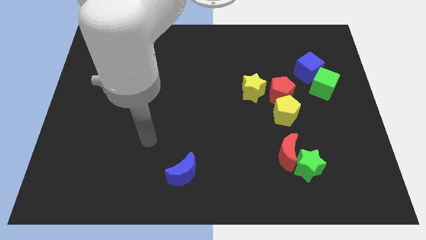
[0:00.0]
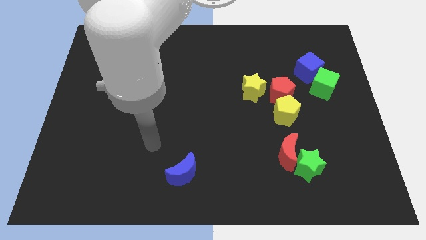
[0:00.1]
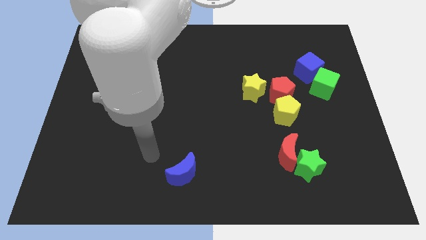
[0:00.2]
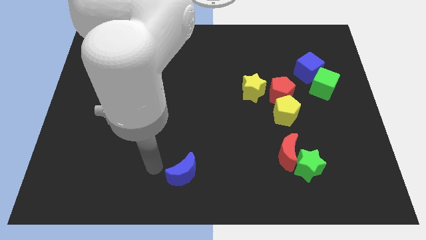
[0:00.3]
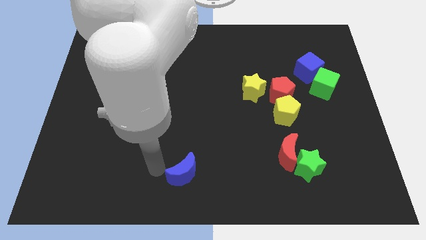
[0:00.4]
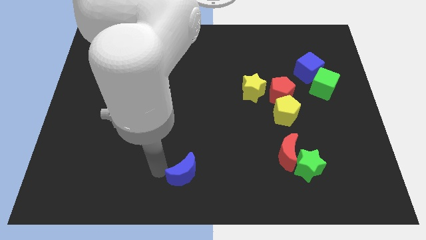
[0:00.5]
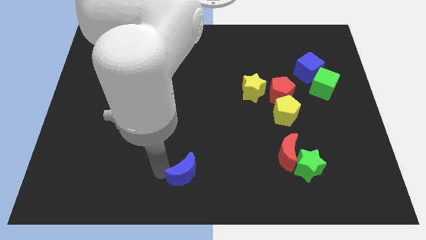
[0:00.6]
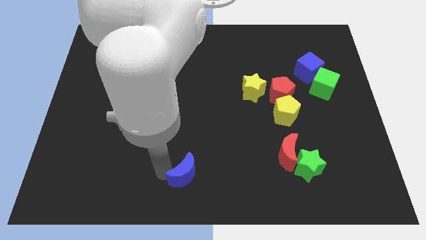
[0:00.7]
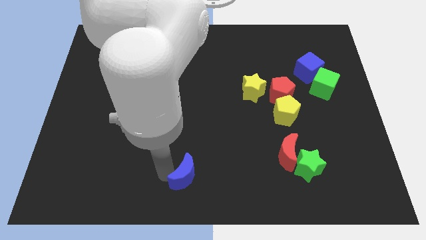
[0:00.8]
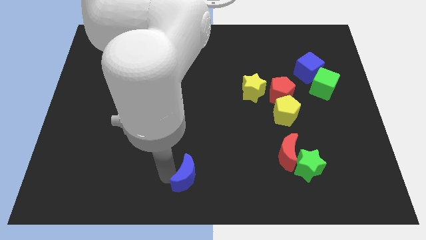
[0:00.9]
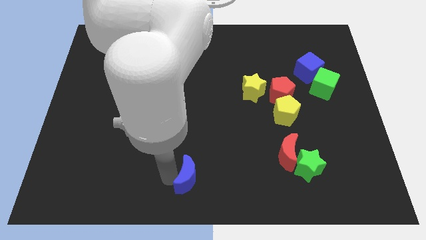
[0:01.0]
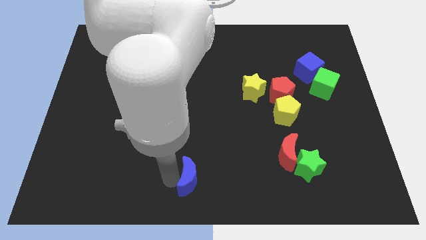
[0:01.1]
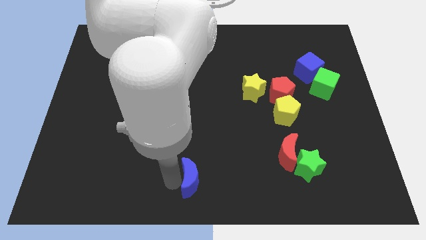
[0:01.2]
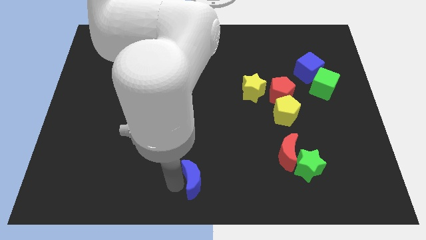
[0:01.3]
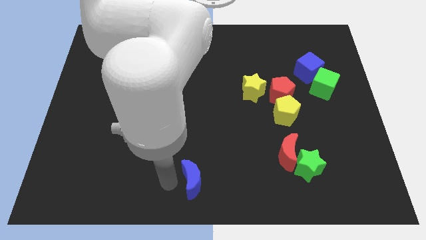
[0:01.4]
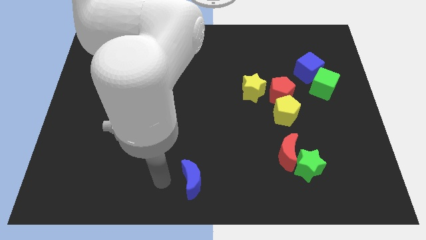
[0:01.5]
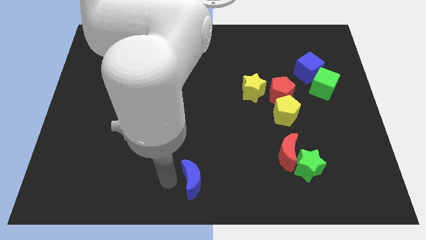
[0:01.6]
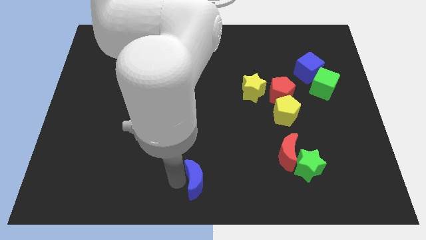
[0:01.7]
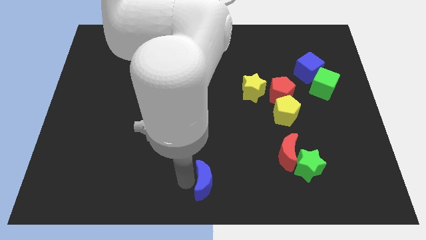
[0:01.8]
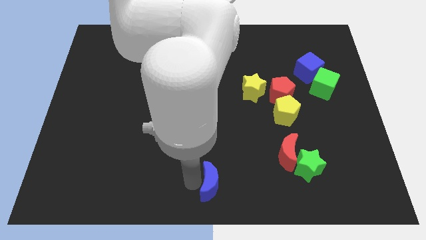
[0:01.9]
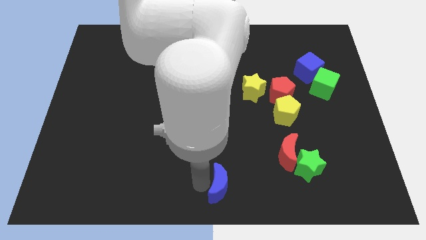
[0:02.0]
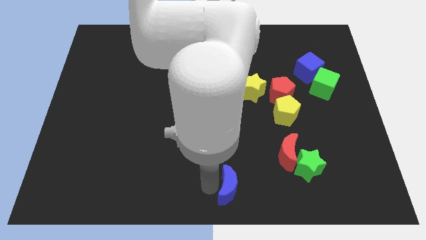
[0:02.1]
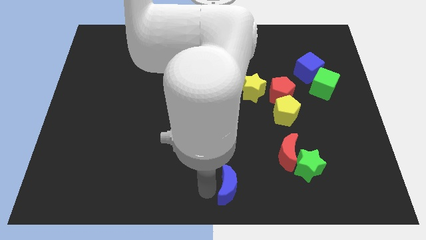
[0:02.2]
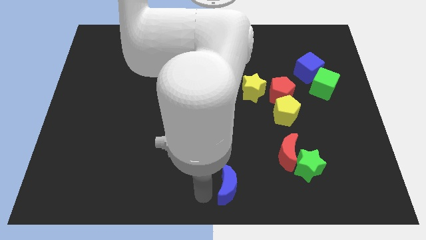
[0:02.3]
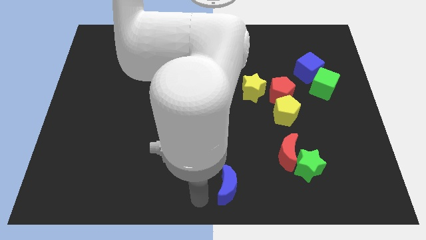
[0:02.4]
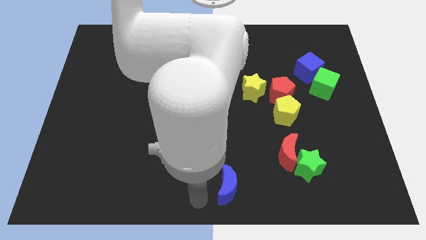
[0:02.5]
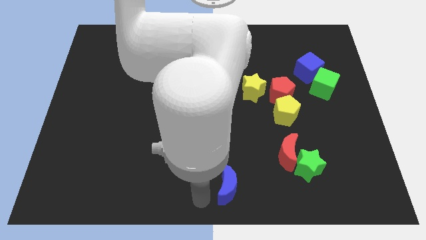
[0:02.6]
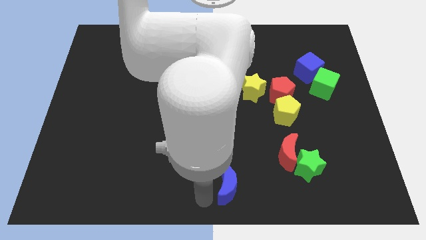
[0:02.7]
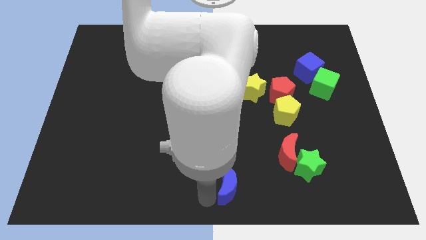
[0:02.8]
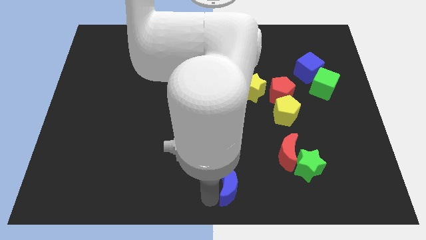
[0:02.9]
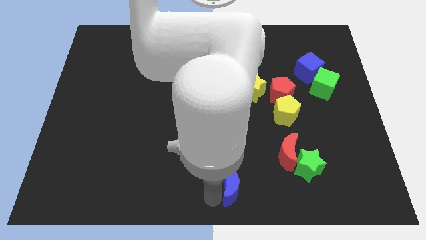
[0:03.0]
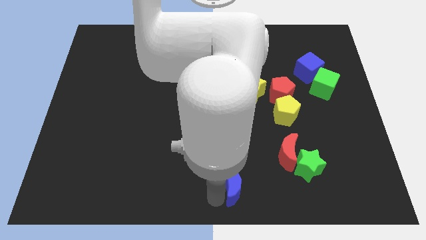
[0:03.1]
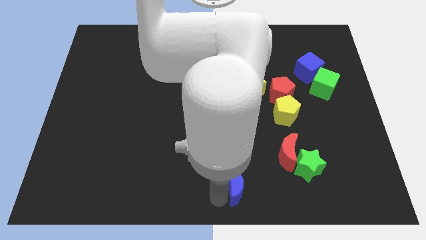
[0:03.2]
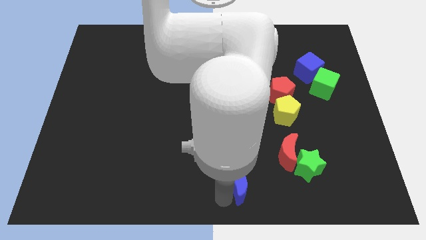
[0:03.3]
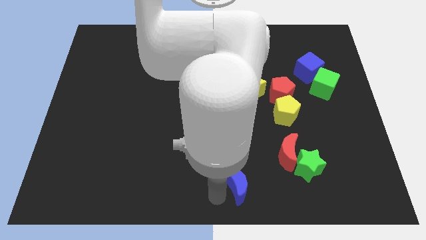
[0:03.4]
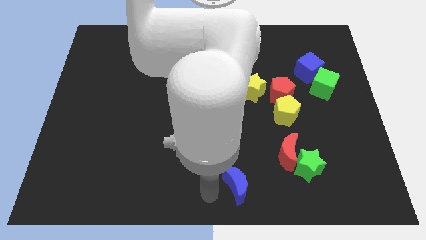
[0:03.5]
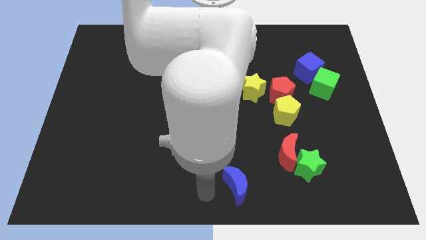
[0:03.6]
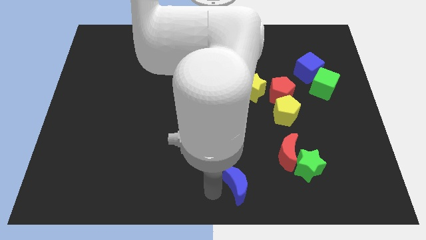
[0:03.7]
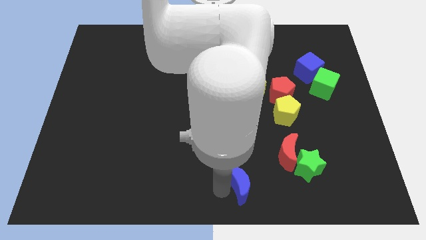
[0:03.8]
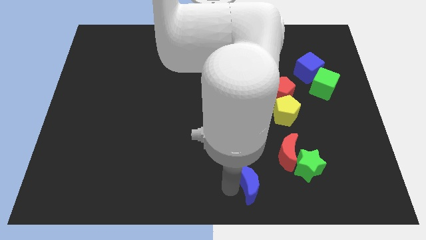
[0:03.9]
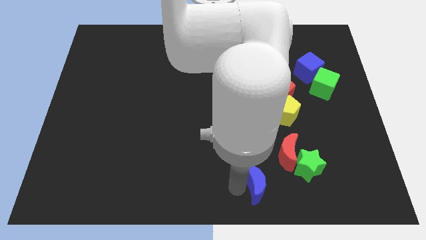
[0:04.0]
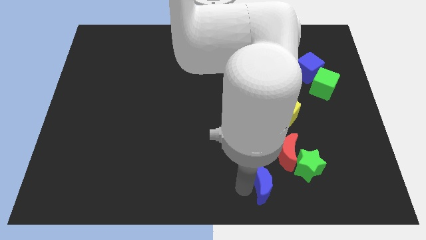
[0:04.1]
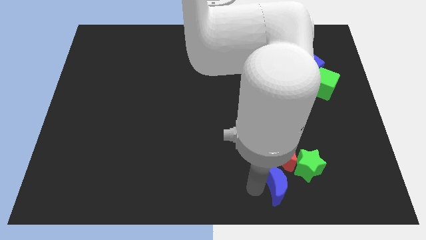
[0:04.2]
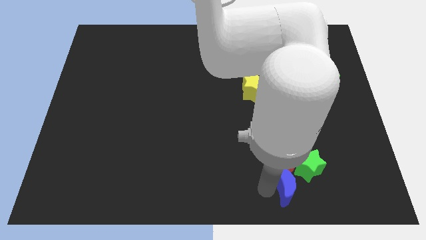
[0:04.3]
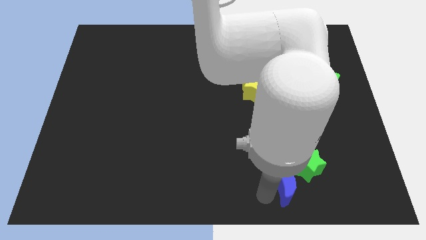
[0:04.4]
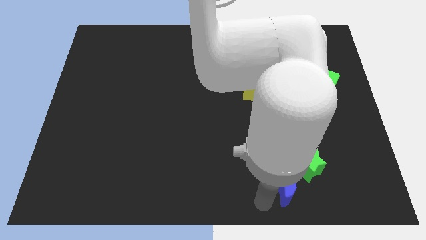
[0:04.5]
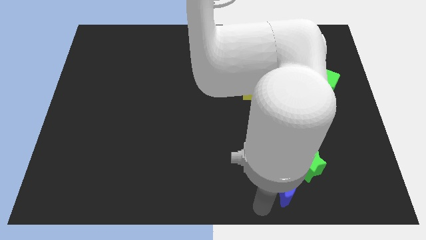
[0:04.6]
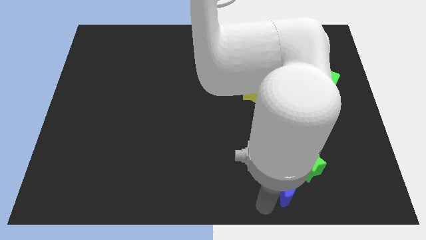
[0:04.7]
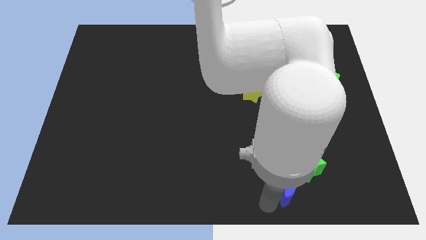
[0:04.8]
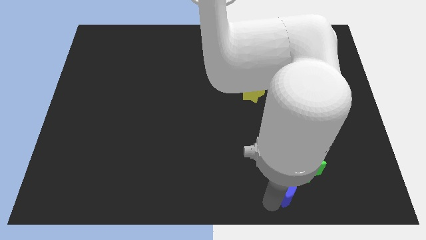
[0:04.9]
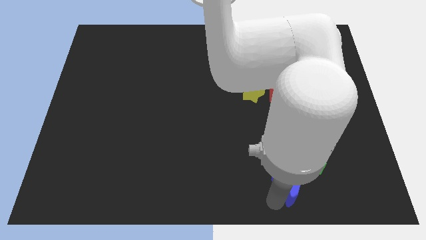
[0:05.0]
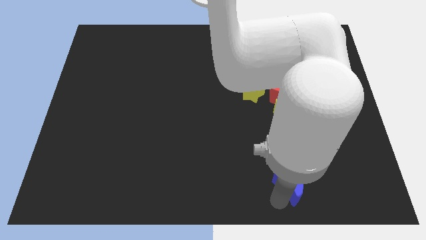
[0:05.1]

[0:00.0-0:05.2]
push the blue moon towards the green star

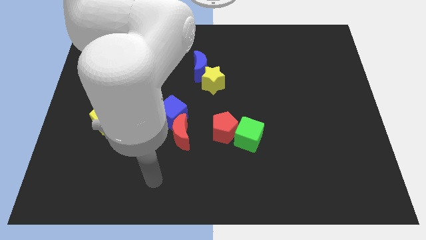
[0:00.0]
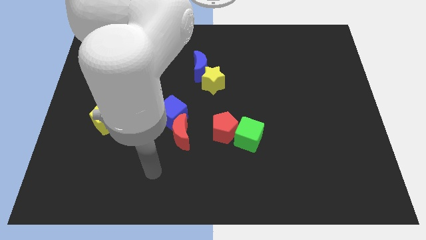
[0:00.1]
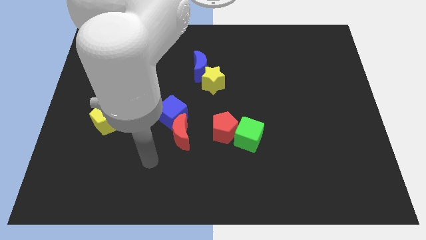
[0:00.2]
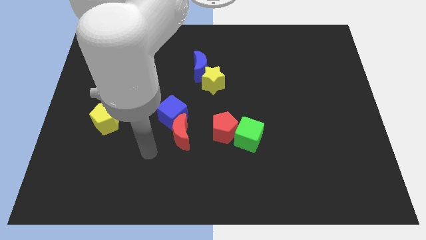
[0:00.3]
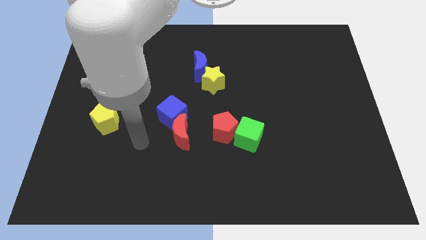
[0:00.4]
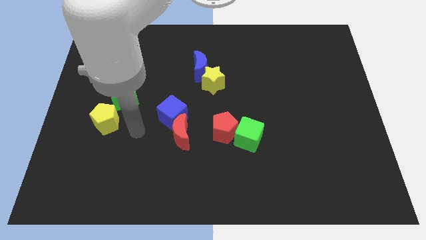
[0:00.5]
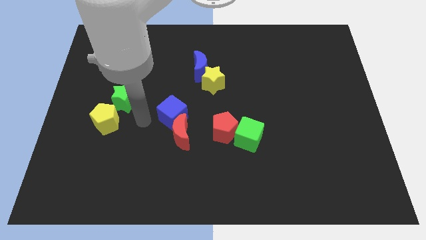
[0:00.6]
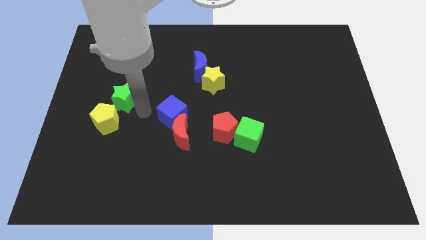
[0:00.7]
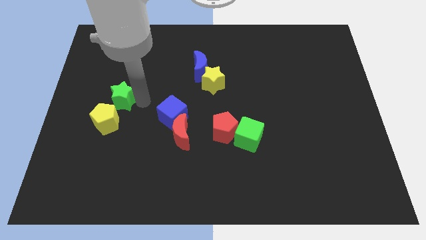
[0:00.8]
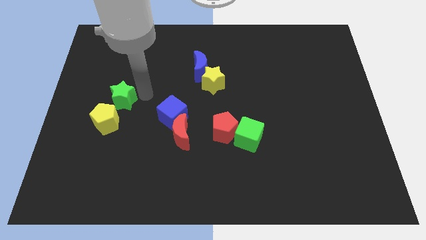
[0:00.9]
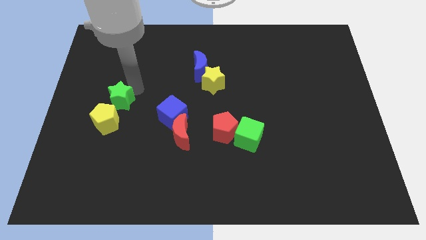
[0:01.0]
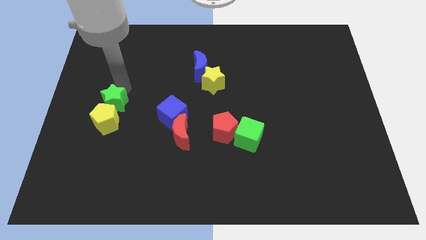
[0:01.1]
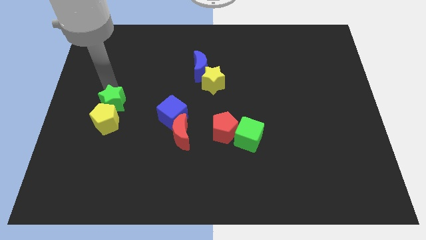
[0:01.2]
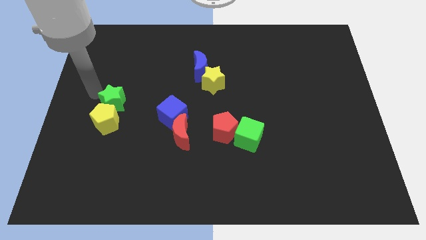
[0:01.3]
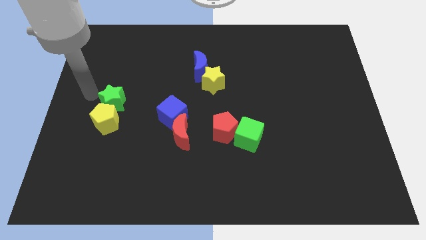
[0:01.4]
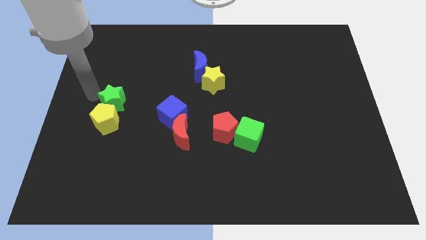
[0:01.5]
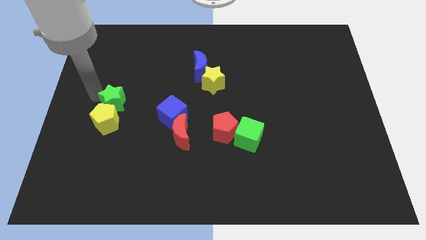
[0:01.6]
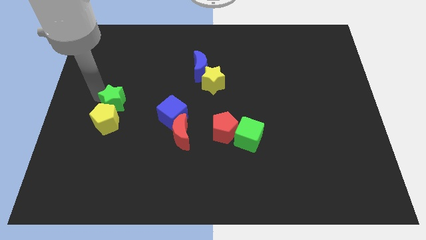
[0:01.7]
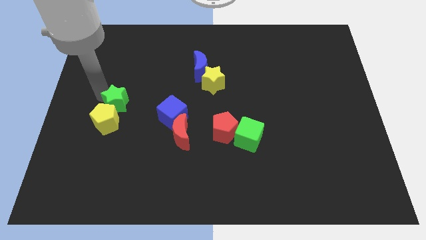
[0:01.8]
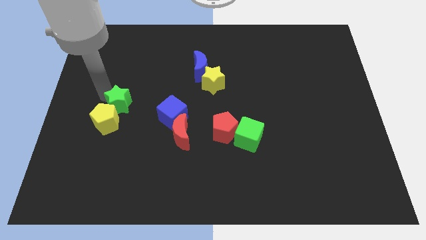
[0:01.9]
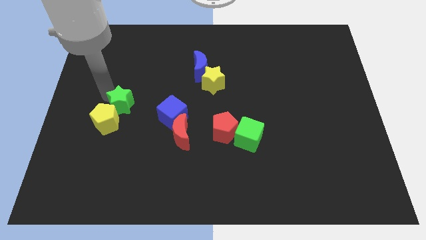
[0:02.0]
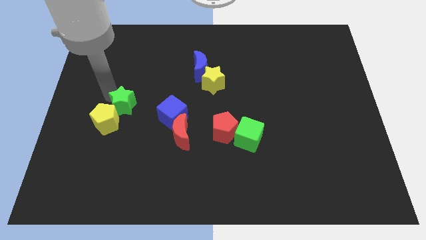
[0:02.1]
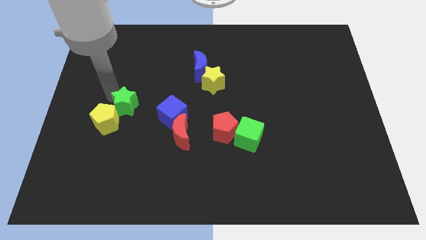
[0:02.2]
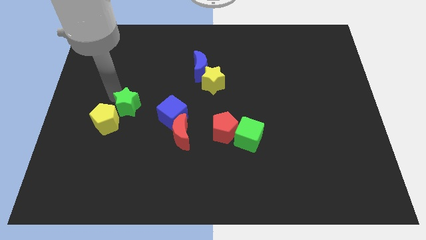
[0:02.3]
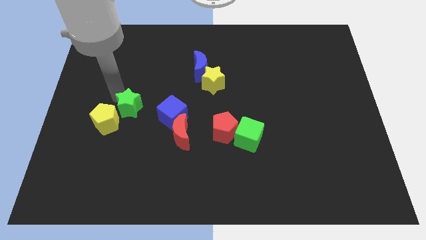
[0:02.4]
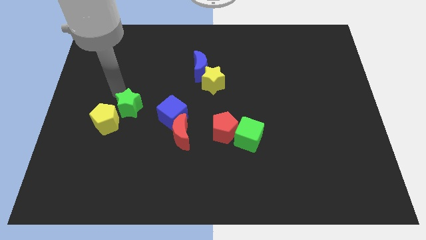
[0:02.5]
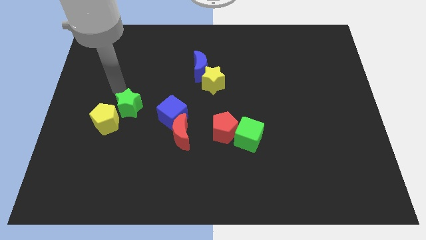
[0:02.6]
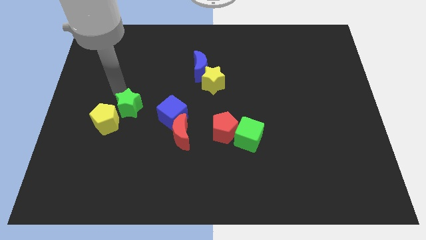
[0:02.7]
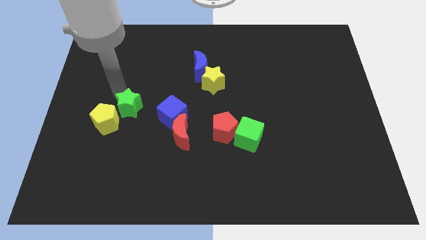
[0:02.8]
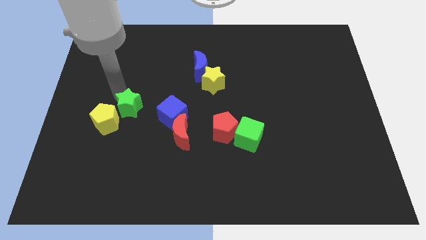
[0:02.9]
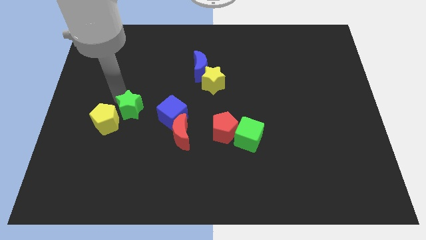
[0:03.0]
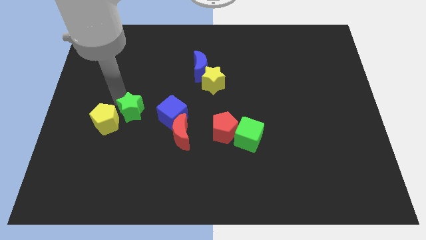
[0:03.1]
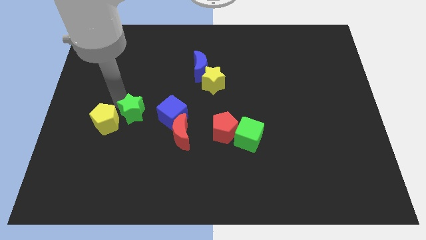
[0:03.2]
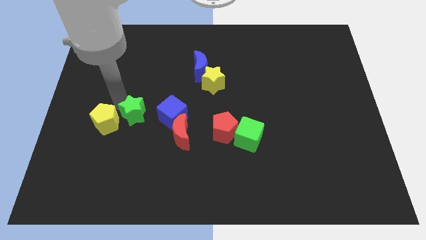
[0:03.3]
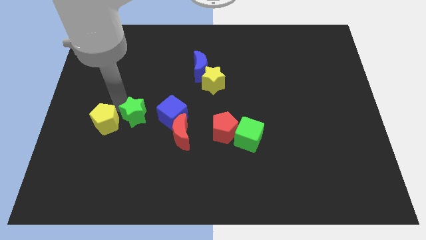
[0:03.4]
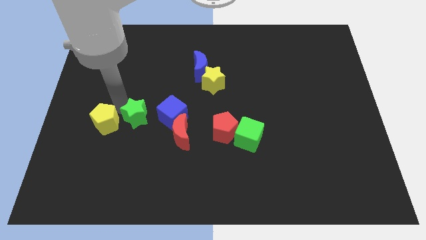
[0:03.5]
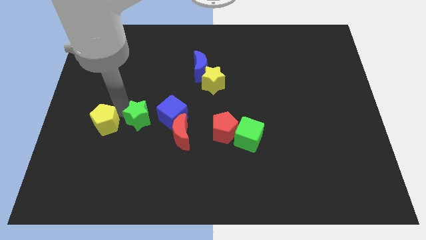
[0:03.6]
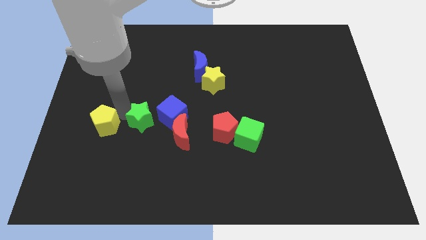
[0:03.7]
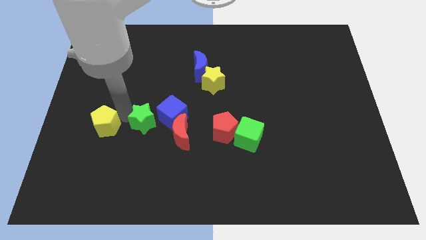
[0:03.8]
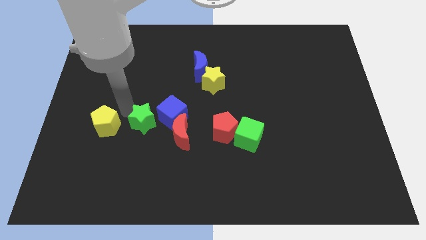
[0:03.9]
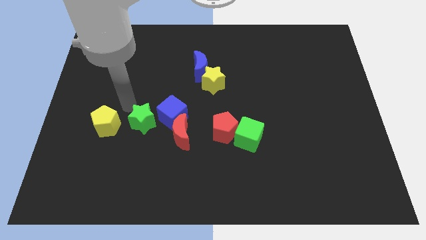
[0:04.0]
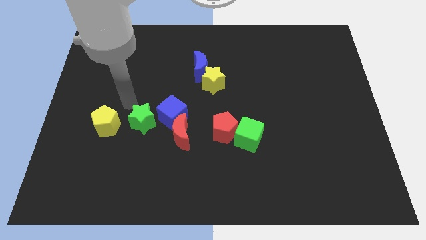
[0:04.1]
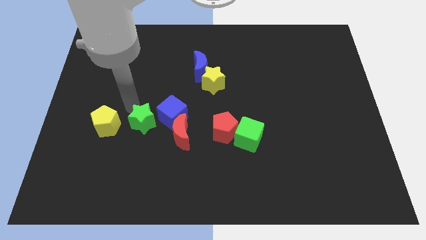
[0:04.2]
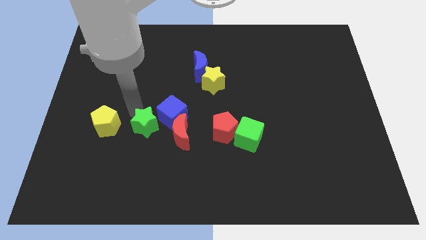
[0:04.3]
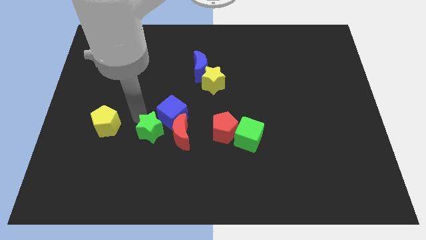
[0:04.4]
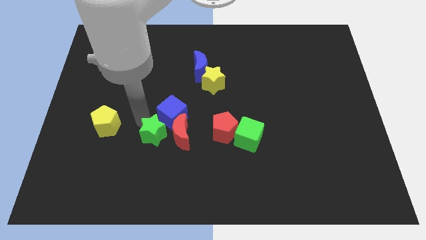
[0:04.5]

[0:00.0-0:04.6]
move the green star close to the red moon
